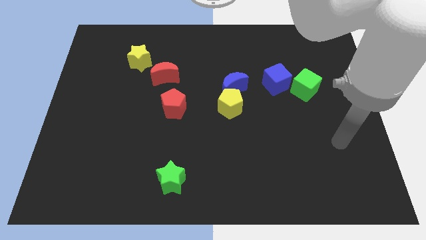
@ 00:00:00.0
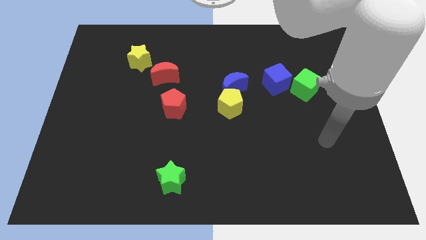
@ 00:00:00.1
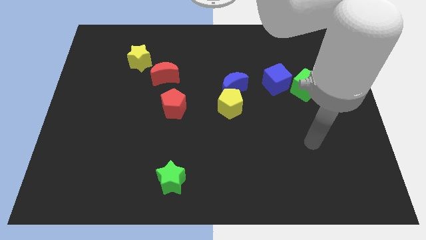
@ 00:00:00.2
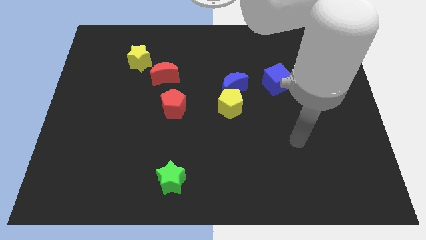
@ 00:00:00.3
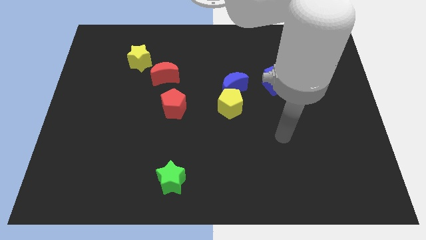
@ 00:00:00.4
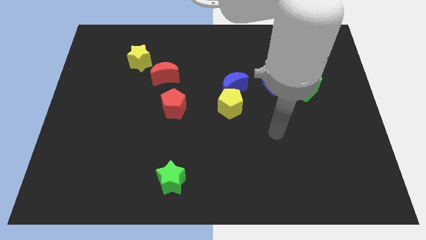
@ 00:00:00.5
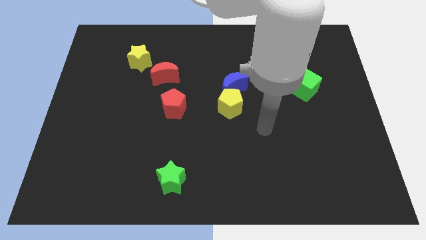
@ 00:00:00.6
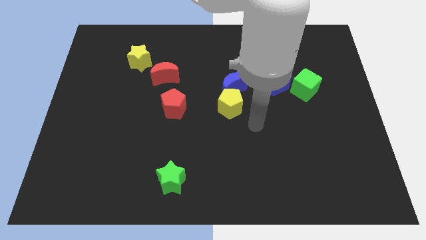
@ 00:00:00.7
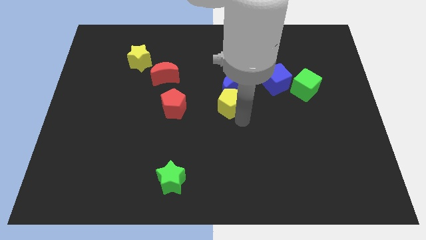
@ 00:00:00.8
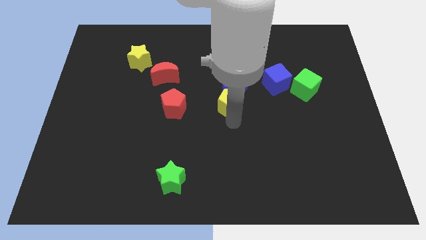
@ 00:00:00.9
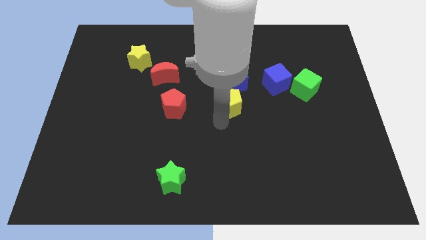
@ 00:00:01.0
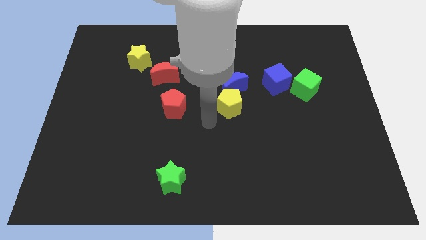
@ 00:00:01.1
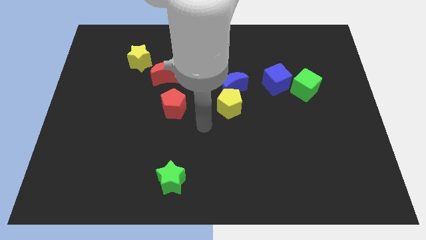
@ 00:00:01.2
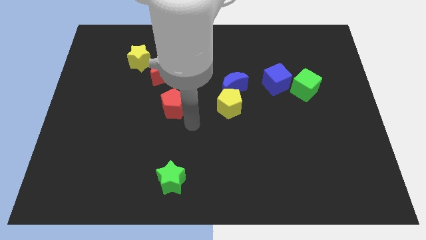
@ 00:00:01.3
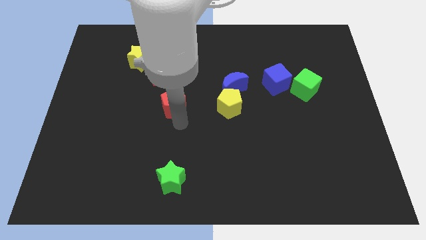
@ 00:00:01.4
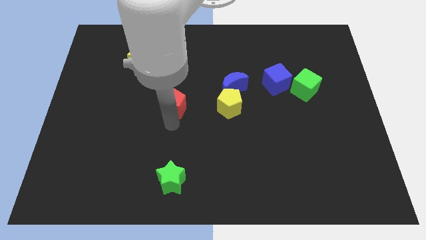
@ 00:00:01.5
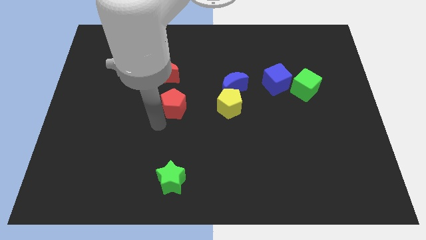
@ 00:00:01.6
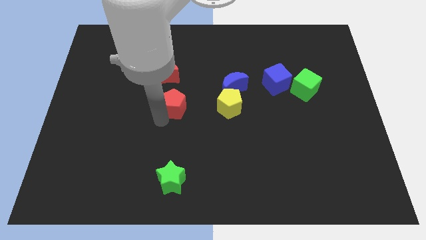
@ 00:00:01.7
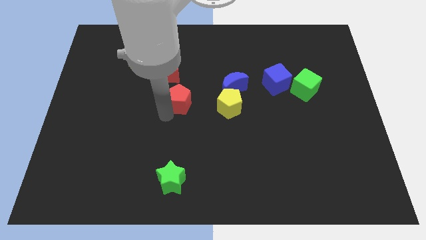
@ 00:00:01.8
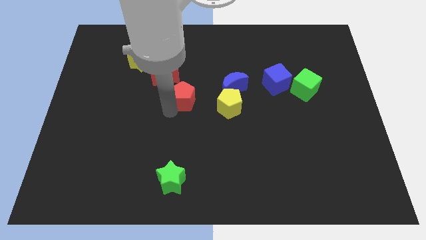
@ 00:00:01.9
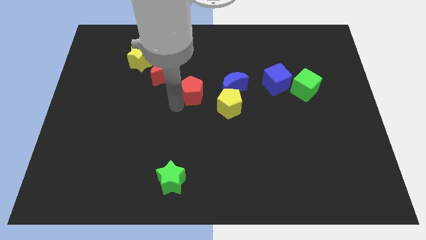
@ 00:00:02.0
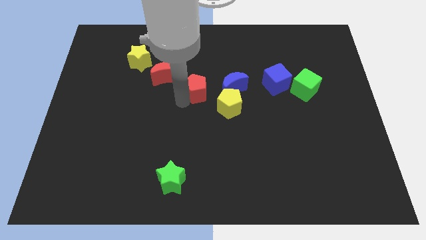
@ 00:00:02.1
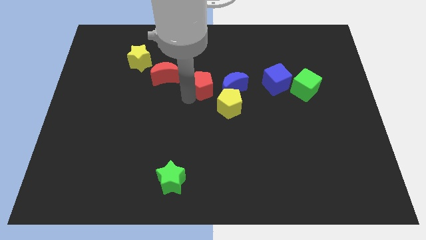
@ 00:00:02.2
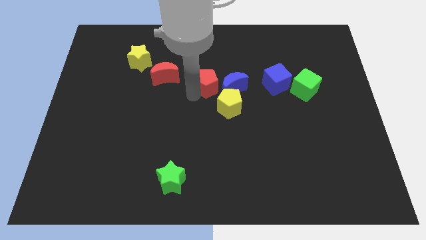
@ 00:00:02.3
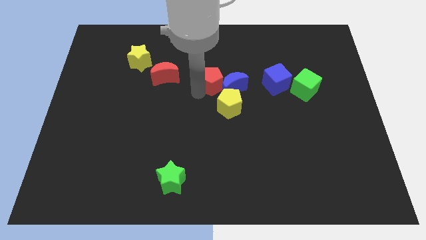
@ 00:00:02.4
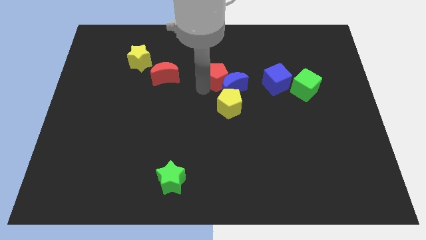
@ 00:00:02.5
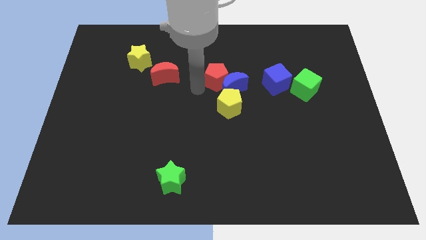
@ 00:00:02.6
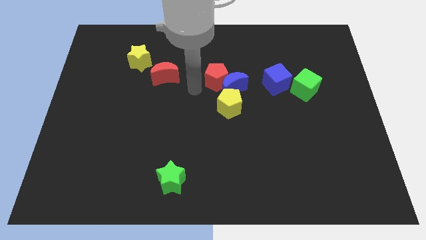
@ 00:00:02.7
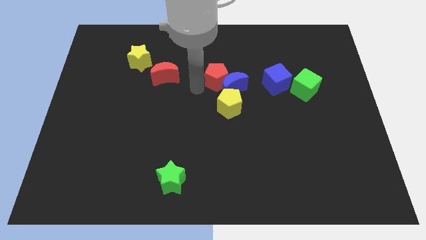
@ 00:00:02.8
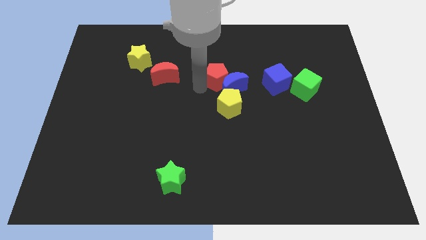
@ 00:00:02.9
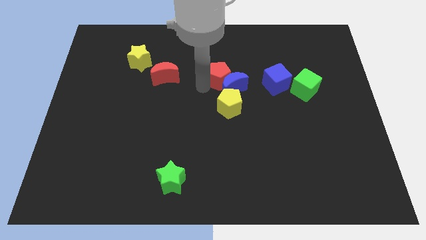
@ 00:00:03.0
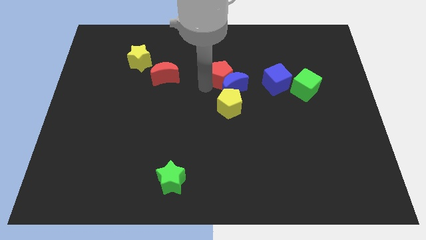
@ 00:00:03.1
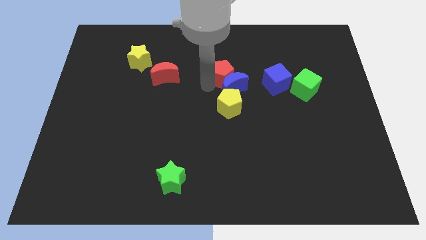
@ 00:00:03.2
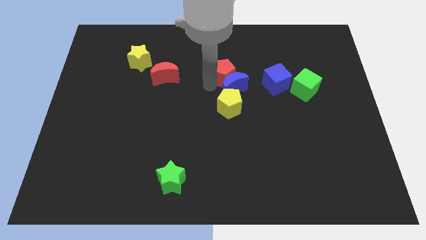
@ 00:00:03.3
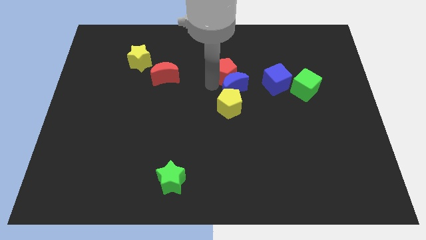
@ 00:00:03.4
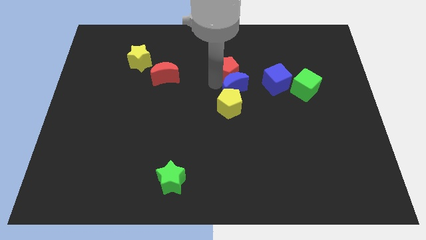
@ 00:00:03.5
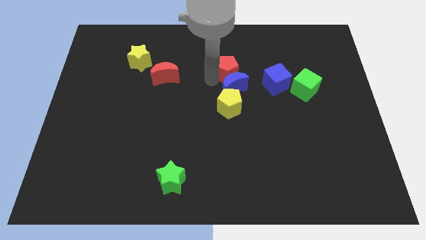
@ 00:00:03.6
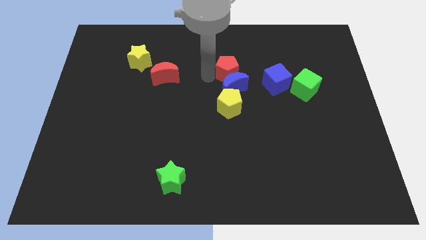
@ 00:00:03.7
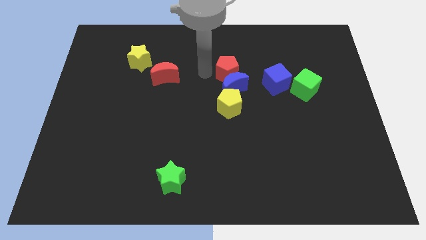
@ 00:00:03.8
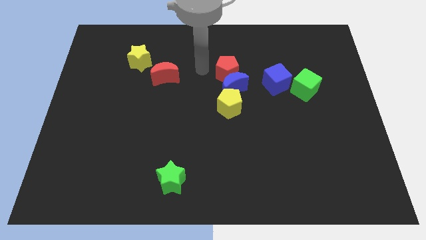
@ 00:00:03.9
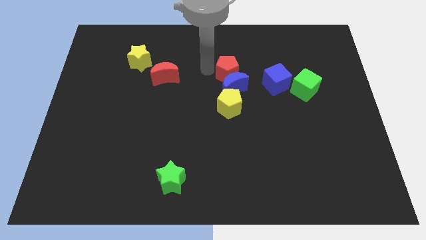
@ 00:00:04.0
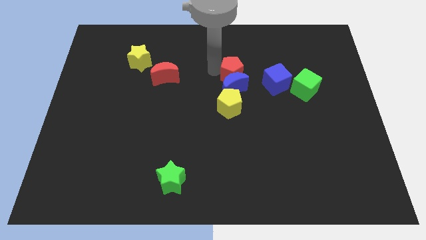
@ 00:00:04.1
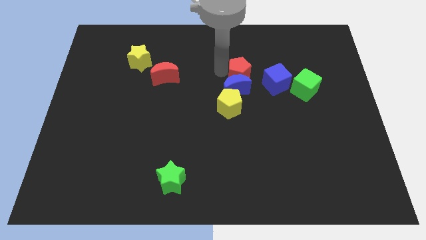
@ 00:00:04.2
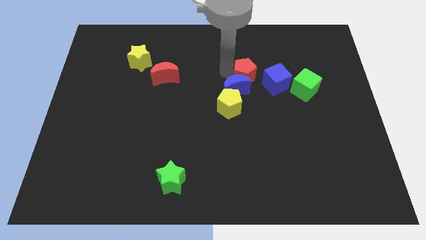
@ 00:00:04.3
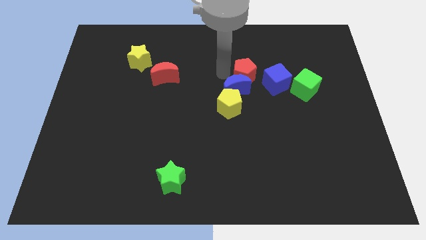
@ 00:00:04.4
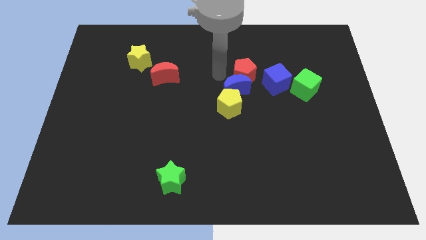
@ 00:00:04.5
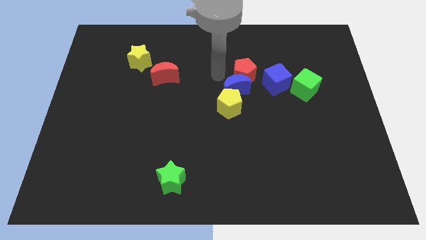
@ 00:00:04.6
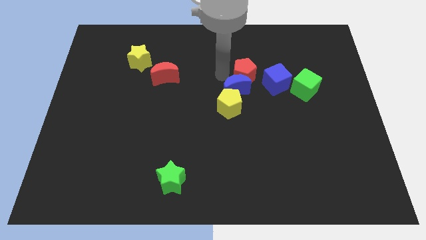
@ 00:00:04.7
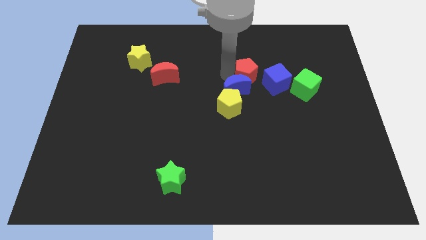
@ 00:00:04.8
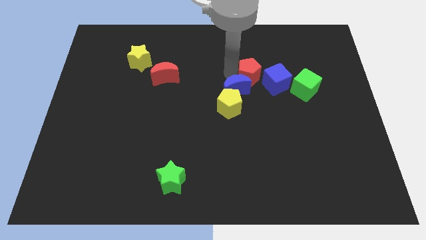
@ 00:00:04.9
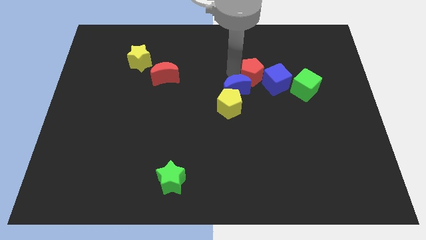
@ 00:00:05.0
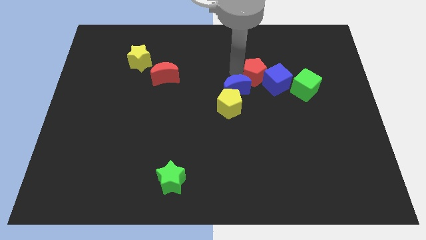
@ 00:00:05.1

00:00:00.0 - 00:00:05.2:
put the red pentagon next to the blue cube

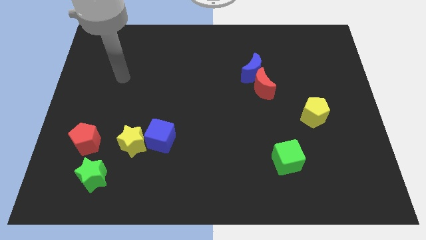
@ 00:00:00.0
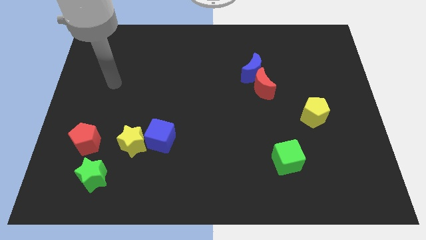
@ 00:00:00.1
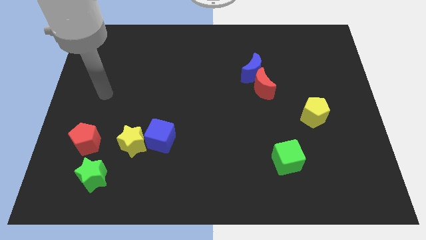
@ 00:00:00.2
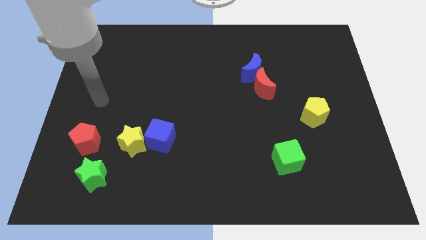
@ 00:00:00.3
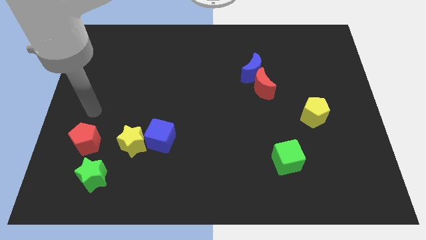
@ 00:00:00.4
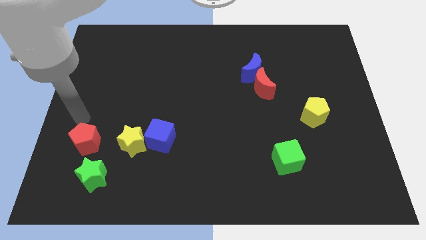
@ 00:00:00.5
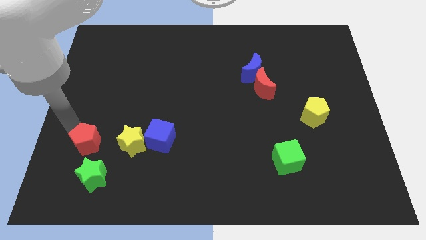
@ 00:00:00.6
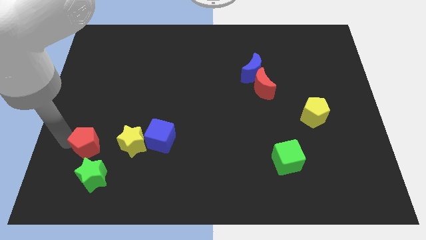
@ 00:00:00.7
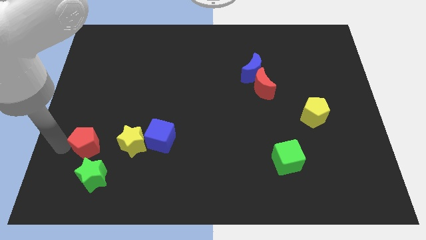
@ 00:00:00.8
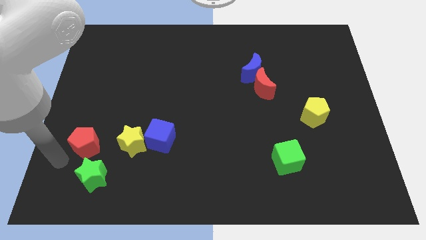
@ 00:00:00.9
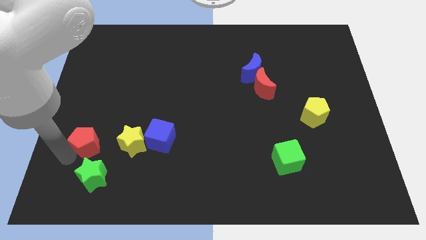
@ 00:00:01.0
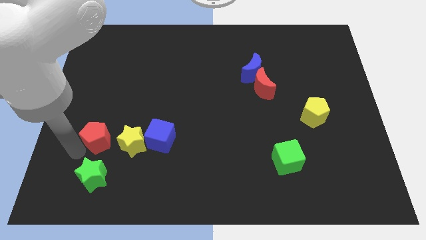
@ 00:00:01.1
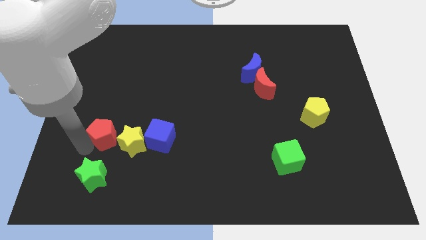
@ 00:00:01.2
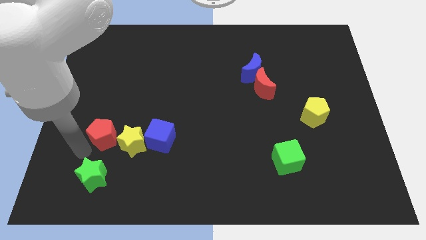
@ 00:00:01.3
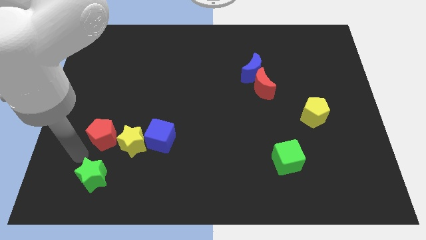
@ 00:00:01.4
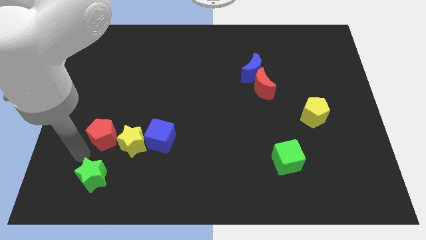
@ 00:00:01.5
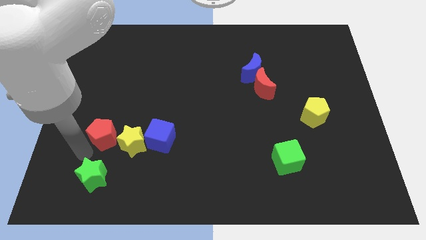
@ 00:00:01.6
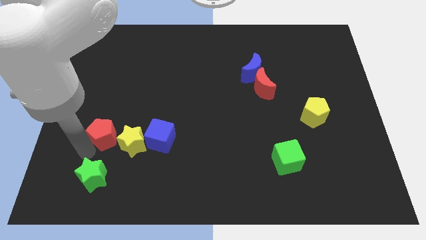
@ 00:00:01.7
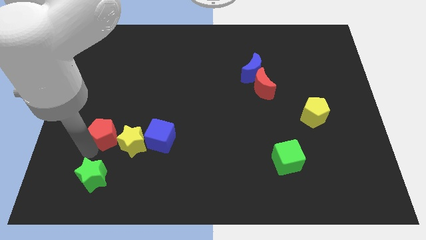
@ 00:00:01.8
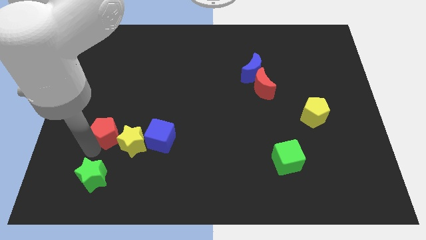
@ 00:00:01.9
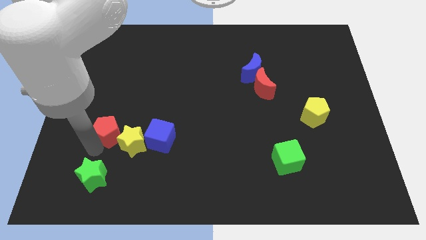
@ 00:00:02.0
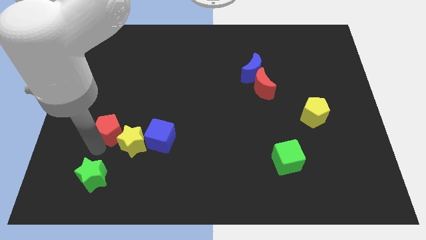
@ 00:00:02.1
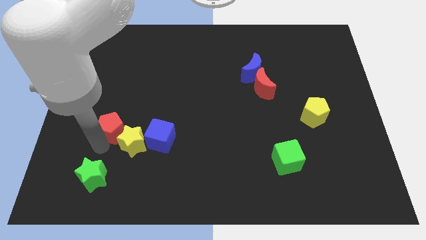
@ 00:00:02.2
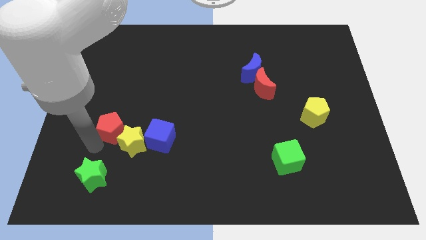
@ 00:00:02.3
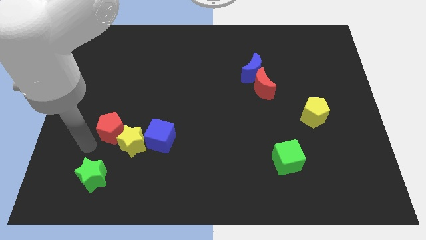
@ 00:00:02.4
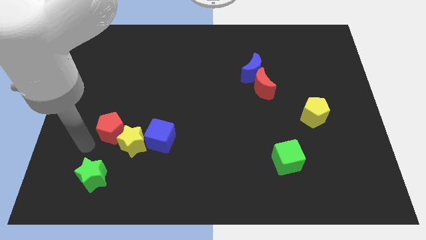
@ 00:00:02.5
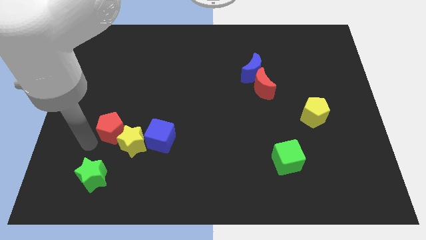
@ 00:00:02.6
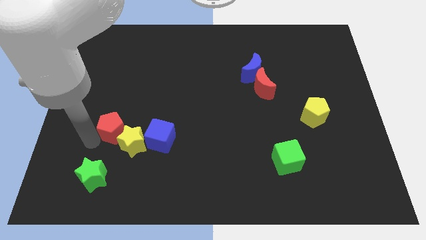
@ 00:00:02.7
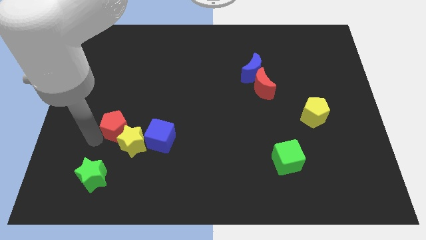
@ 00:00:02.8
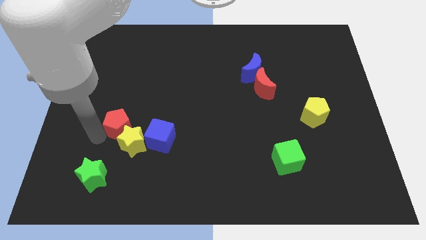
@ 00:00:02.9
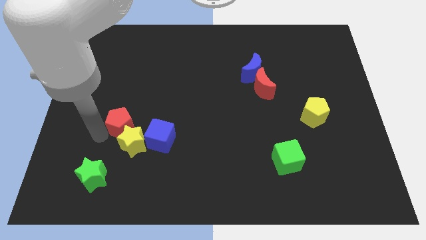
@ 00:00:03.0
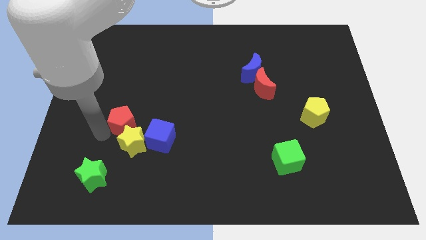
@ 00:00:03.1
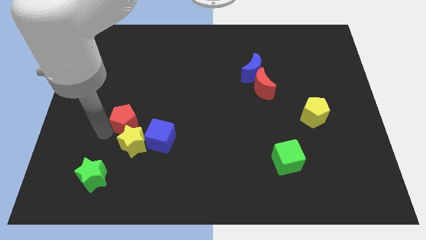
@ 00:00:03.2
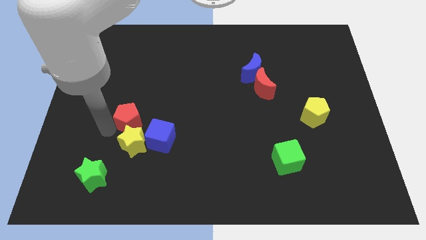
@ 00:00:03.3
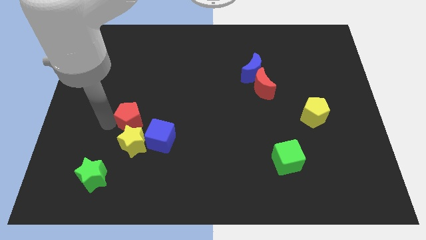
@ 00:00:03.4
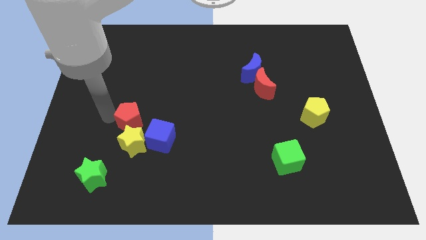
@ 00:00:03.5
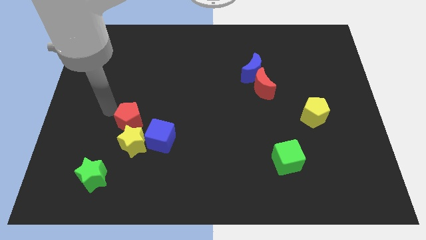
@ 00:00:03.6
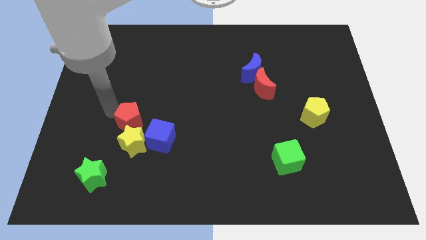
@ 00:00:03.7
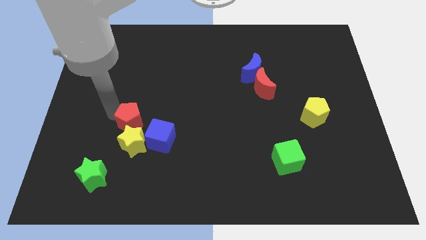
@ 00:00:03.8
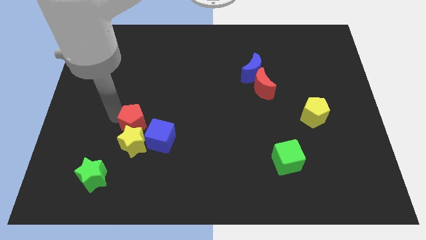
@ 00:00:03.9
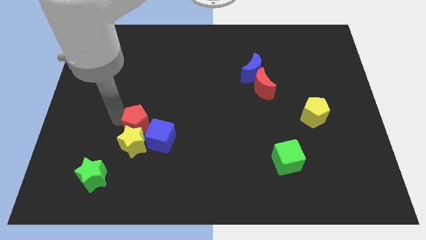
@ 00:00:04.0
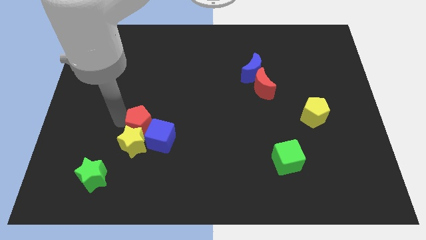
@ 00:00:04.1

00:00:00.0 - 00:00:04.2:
put the red pentagon to the blue cube
